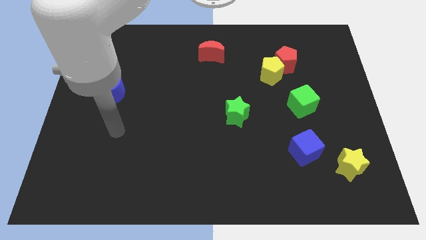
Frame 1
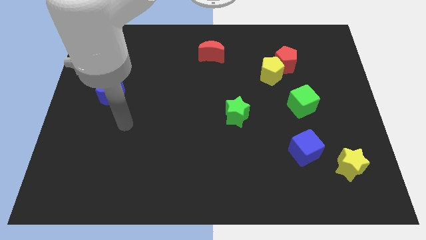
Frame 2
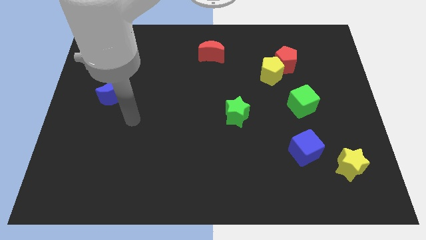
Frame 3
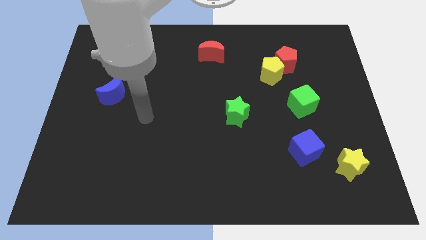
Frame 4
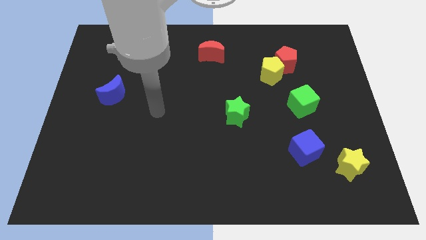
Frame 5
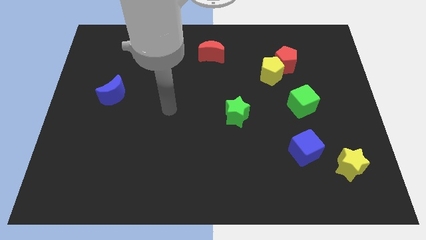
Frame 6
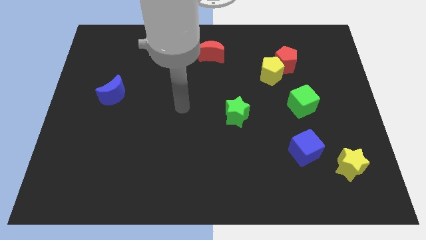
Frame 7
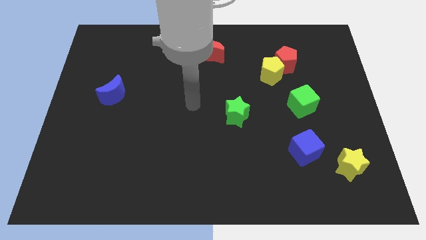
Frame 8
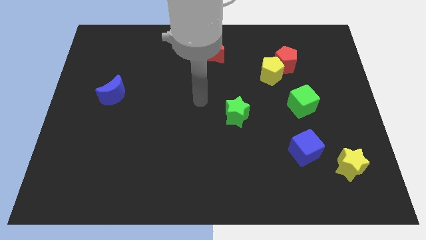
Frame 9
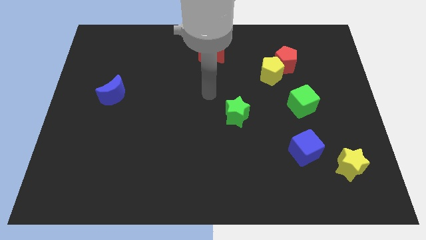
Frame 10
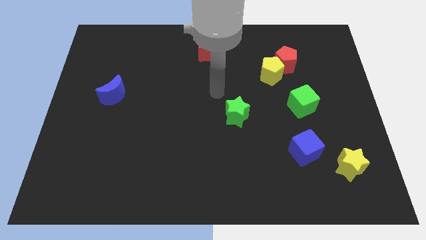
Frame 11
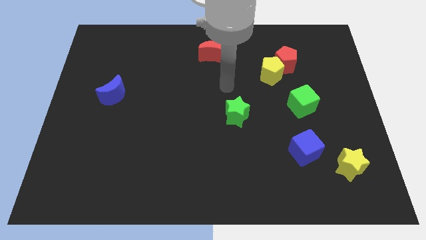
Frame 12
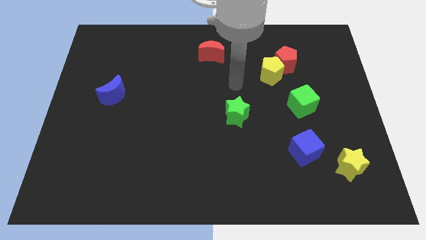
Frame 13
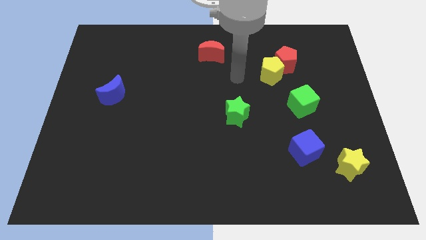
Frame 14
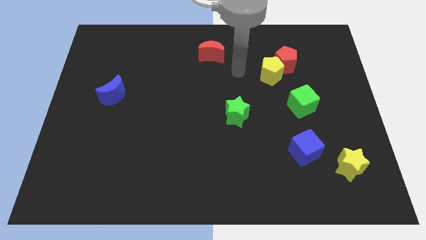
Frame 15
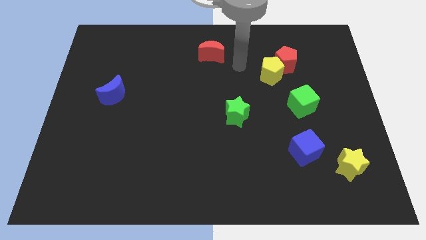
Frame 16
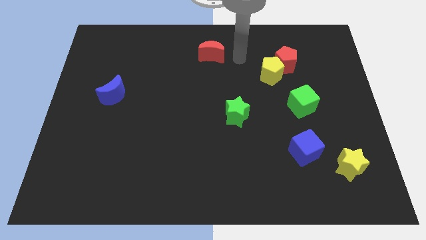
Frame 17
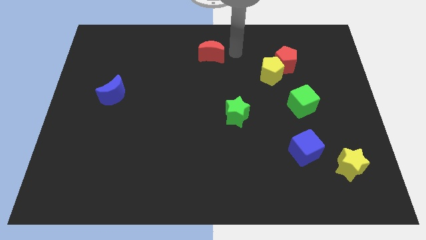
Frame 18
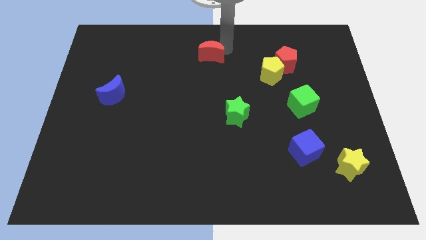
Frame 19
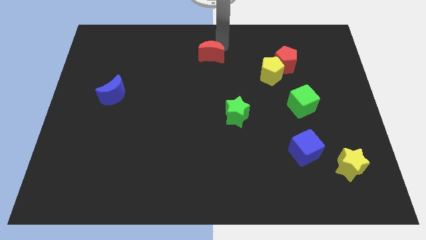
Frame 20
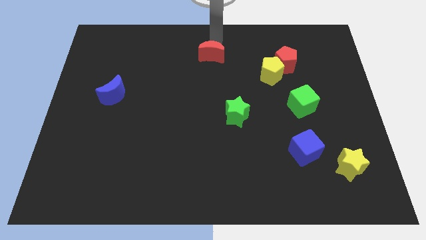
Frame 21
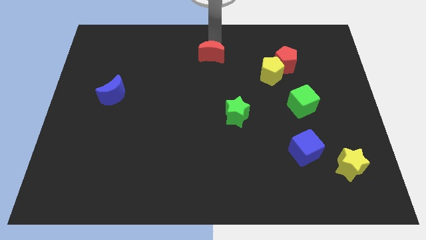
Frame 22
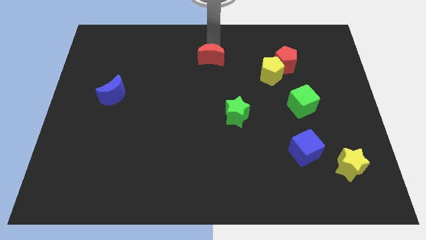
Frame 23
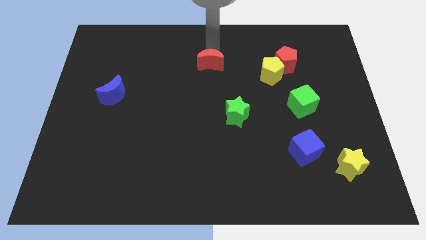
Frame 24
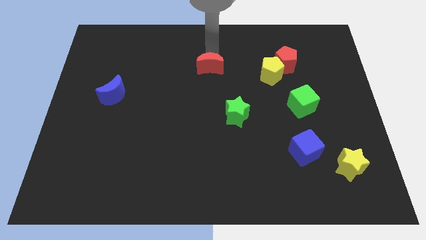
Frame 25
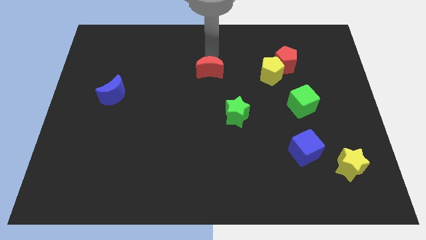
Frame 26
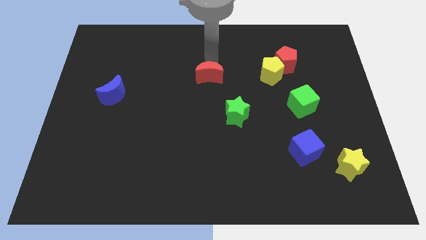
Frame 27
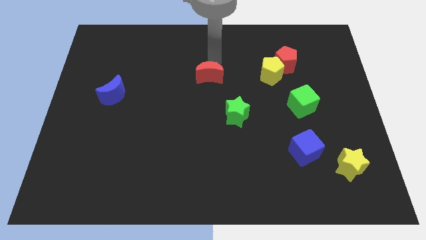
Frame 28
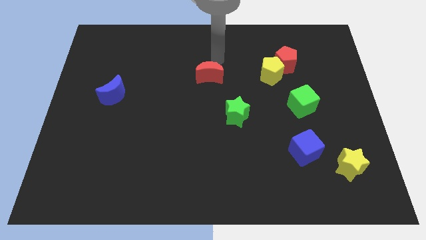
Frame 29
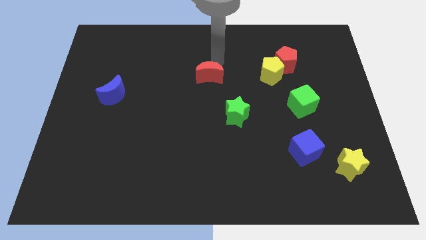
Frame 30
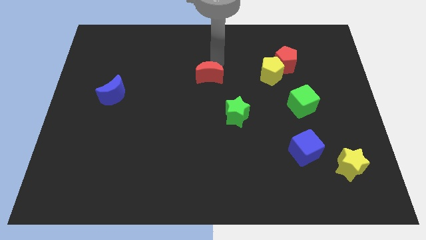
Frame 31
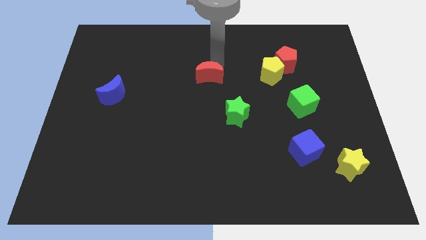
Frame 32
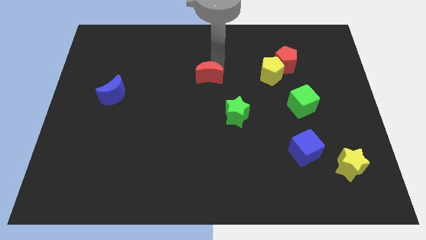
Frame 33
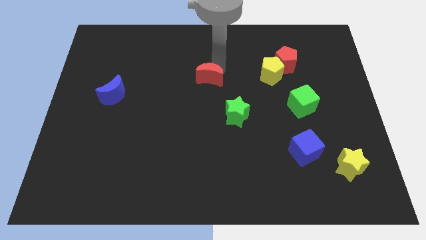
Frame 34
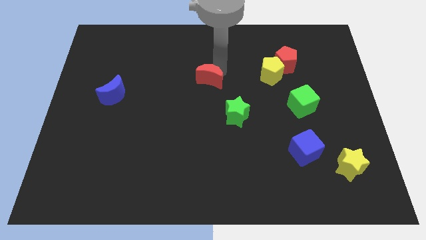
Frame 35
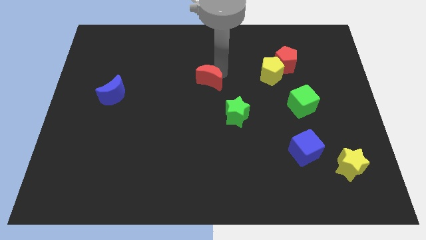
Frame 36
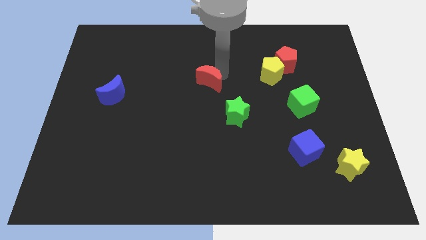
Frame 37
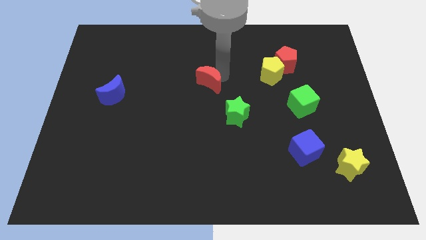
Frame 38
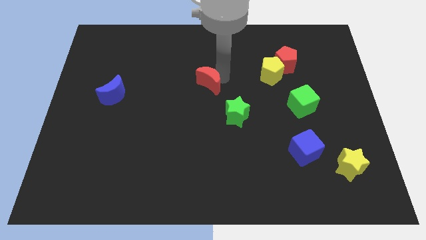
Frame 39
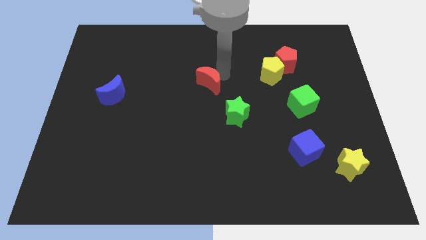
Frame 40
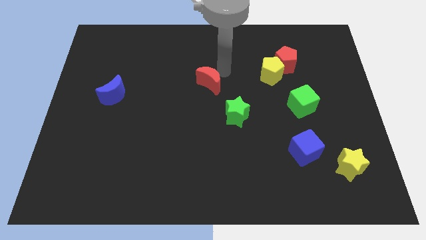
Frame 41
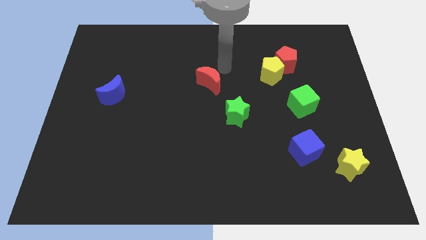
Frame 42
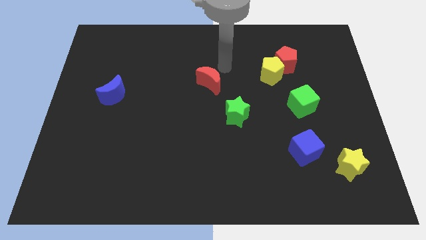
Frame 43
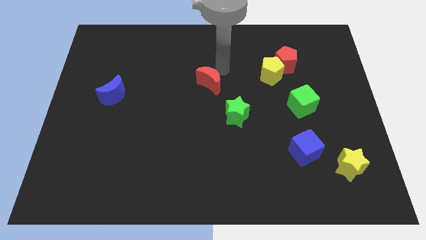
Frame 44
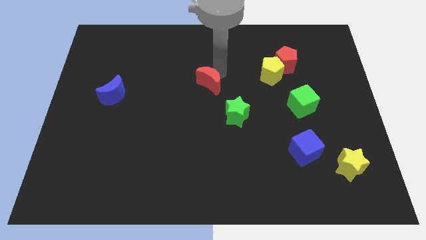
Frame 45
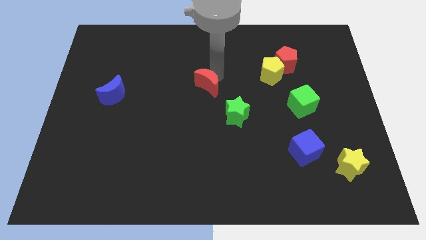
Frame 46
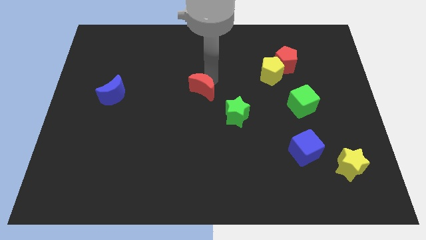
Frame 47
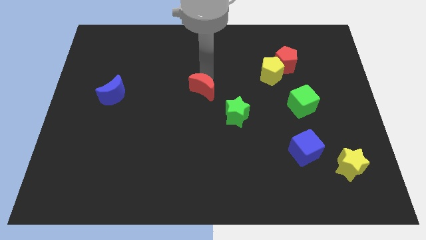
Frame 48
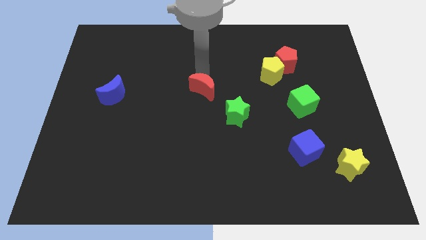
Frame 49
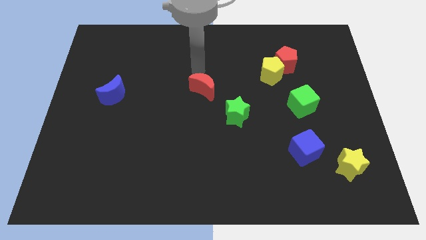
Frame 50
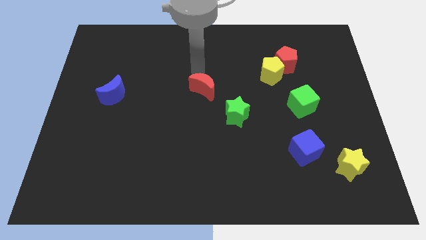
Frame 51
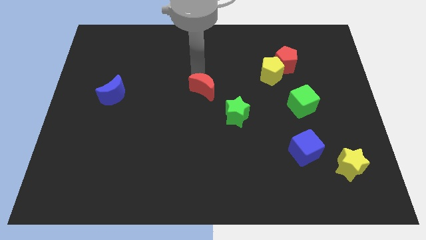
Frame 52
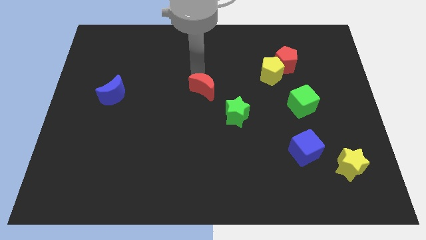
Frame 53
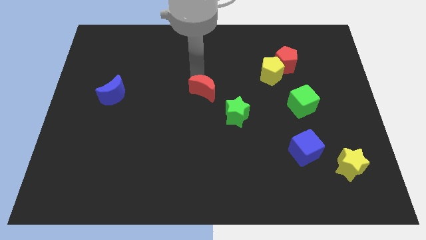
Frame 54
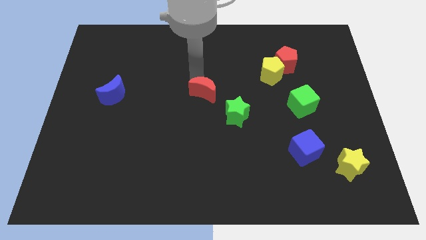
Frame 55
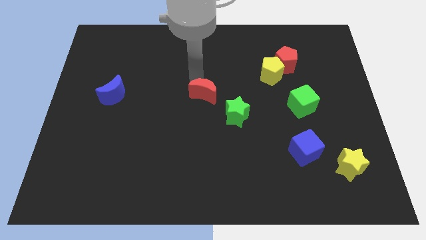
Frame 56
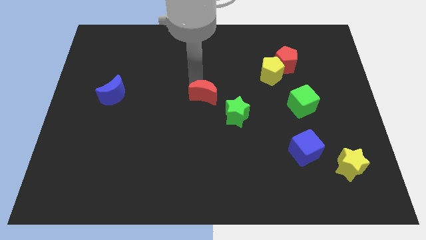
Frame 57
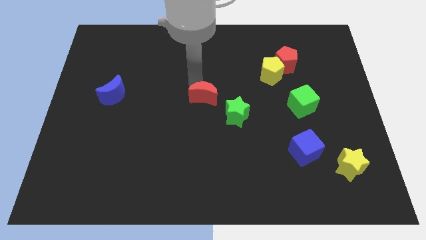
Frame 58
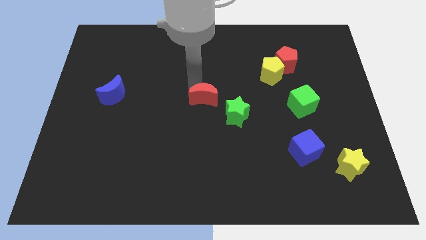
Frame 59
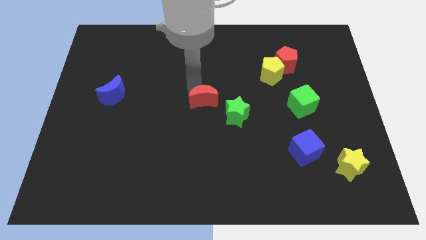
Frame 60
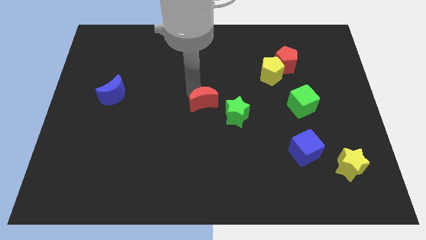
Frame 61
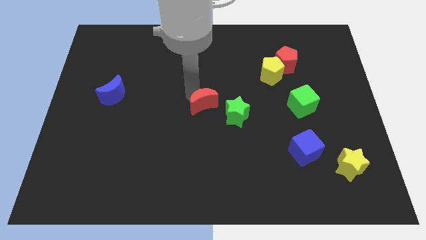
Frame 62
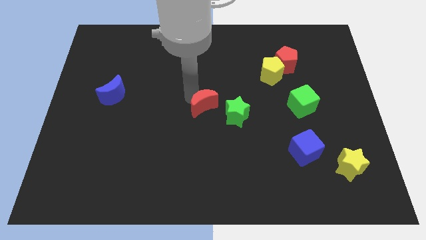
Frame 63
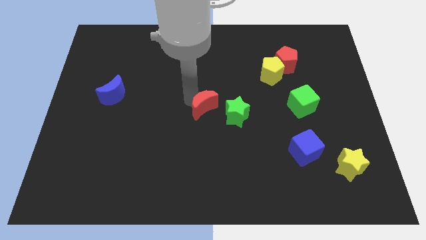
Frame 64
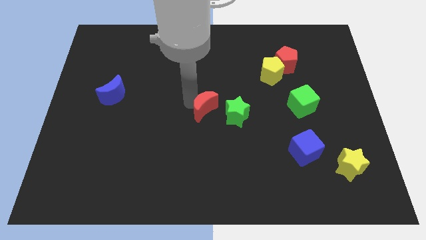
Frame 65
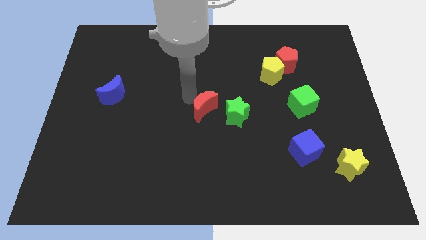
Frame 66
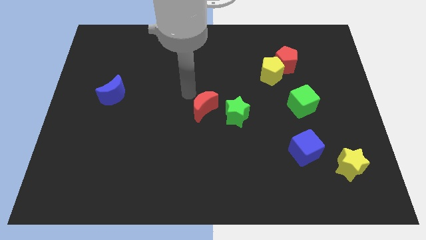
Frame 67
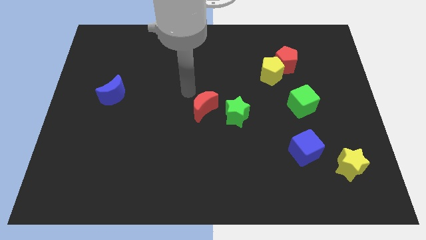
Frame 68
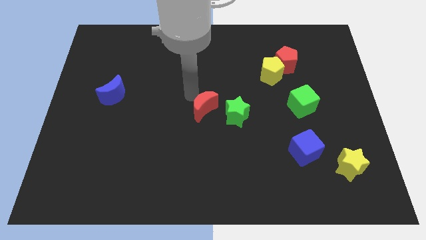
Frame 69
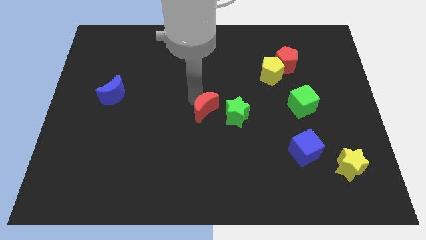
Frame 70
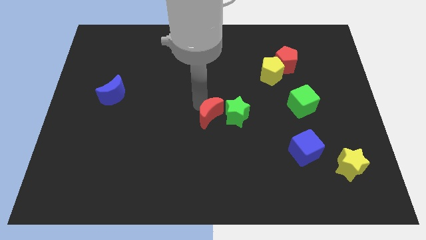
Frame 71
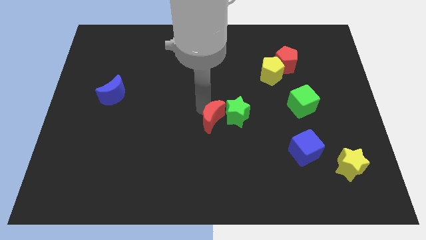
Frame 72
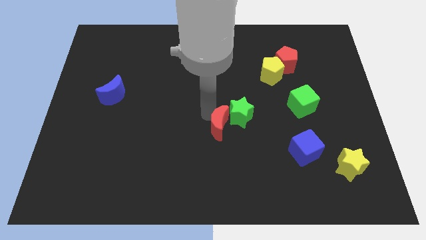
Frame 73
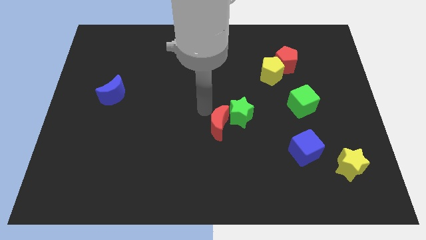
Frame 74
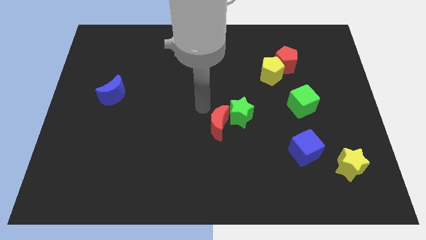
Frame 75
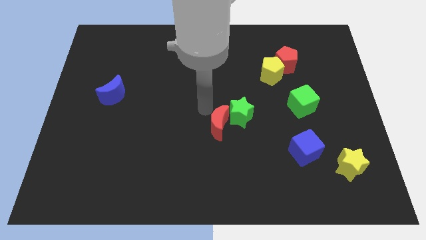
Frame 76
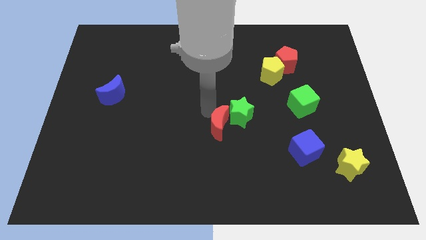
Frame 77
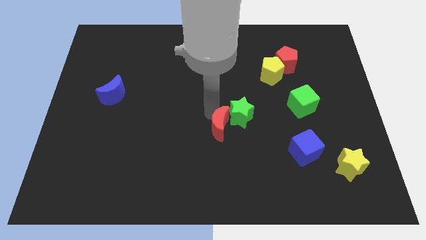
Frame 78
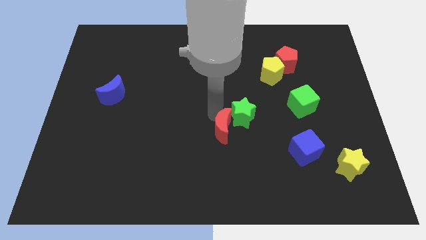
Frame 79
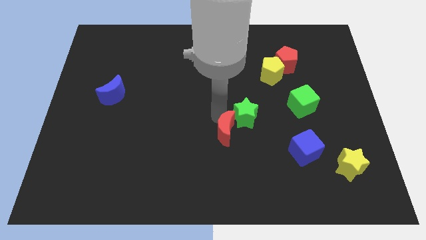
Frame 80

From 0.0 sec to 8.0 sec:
move the red moon to the bottom side of the green star

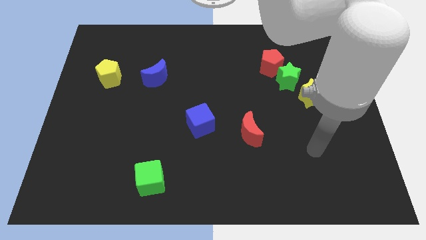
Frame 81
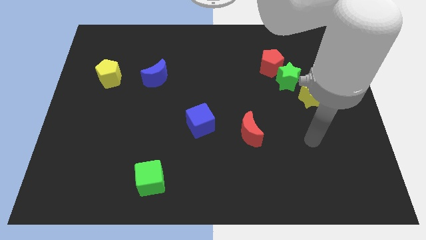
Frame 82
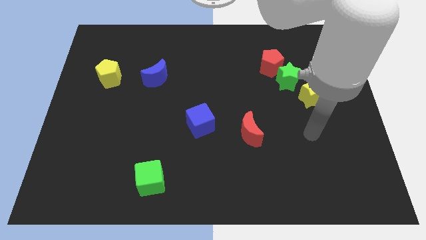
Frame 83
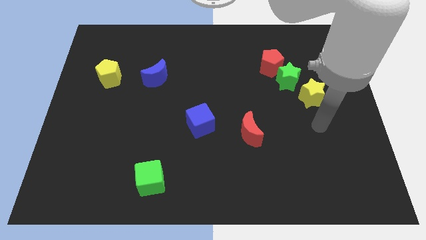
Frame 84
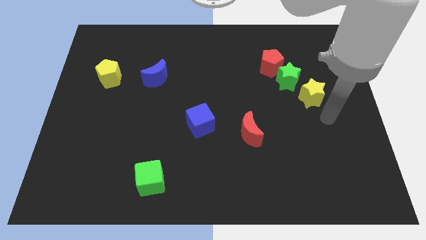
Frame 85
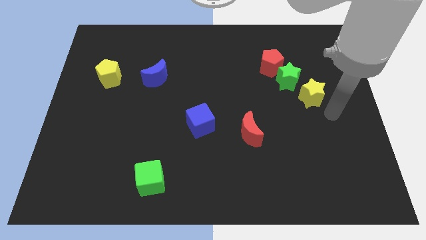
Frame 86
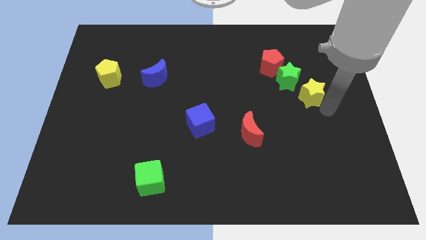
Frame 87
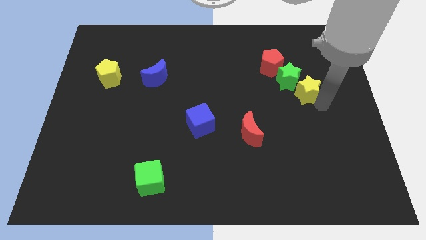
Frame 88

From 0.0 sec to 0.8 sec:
push the yellow star to the bottom right of the red pentagon
